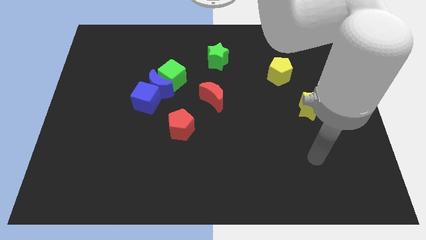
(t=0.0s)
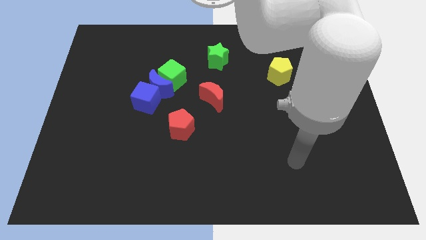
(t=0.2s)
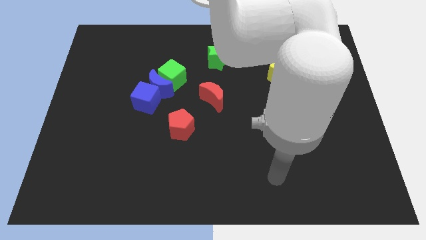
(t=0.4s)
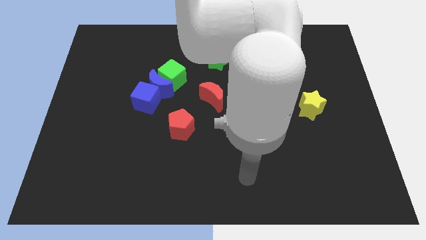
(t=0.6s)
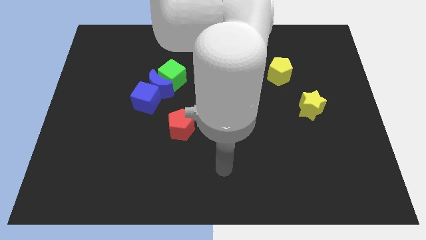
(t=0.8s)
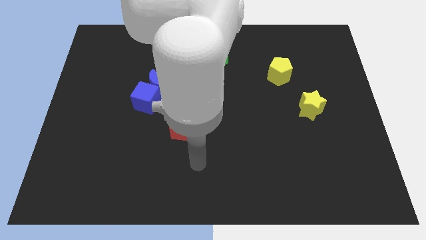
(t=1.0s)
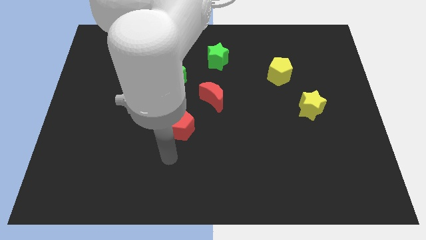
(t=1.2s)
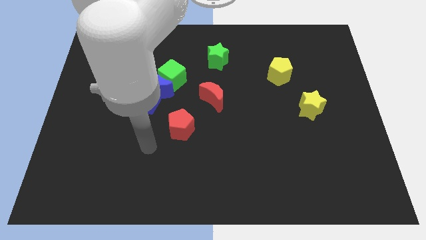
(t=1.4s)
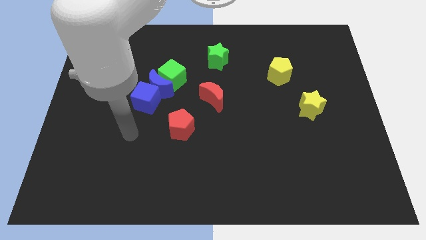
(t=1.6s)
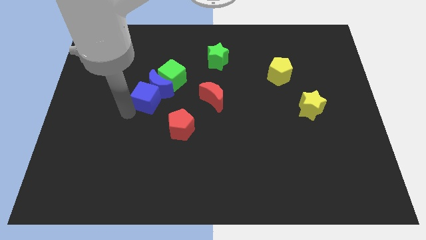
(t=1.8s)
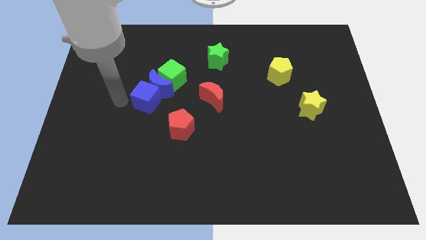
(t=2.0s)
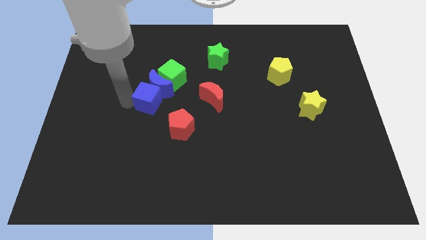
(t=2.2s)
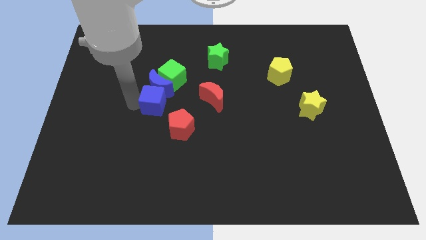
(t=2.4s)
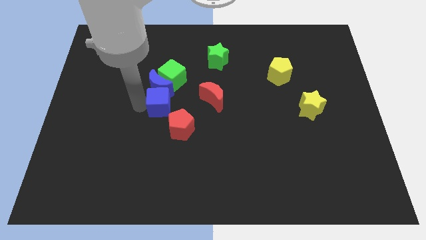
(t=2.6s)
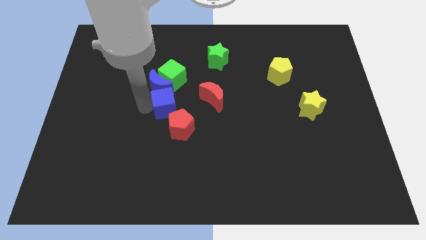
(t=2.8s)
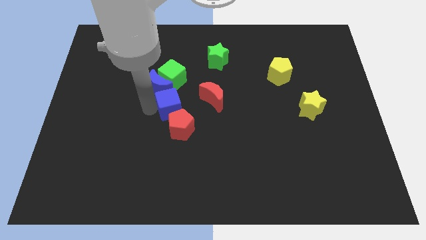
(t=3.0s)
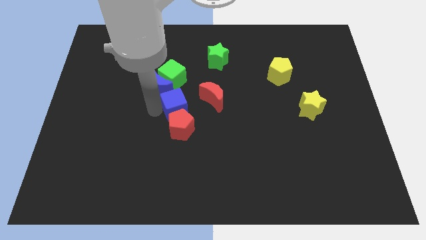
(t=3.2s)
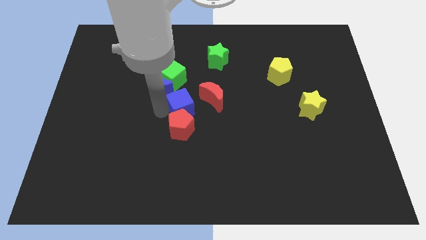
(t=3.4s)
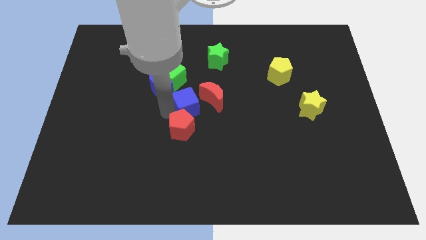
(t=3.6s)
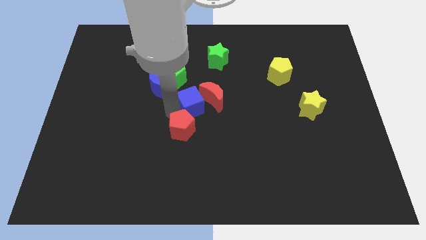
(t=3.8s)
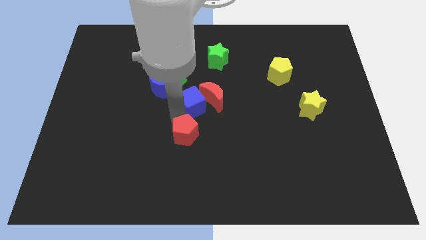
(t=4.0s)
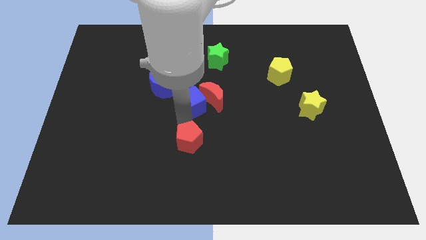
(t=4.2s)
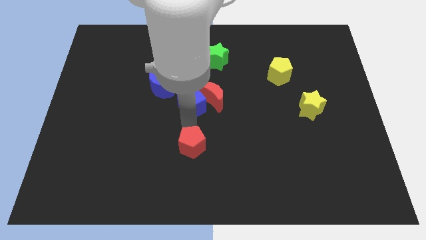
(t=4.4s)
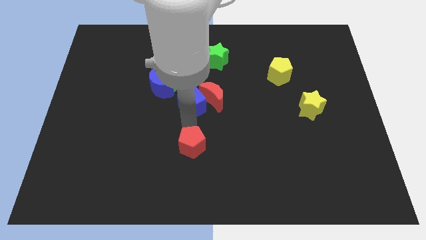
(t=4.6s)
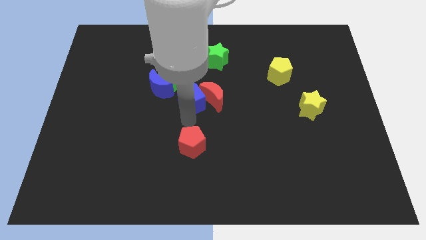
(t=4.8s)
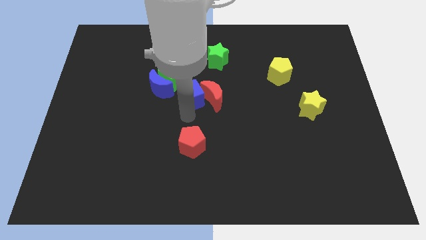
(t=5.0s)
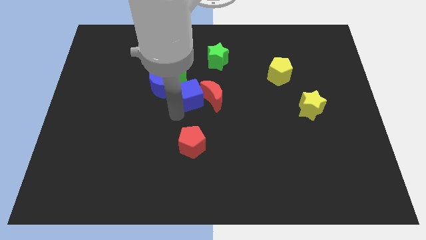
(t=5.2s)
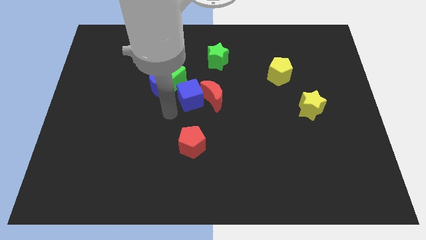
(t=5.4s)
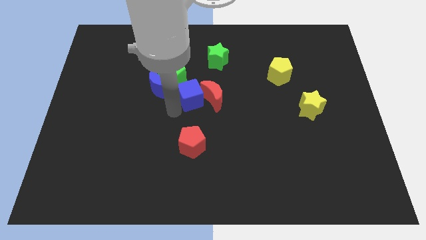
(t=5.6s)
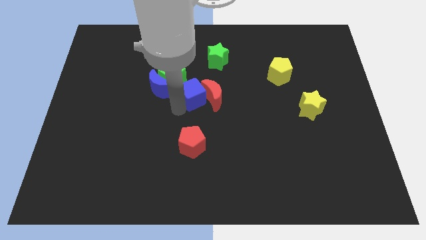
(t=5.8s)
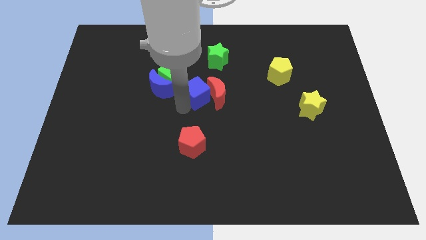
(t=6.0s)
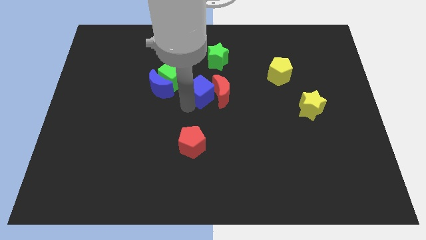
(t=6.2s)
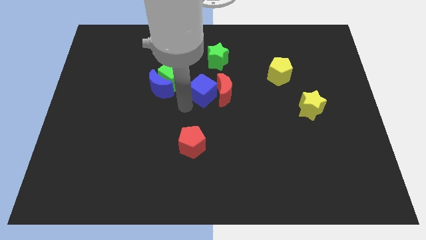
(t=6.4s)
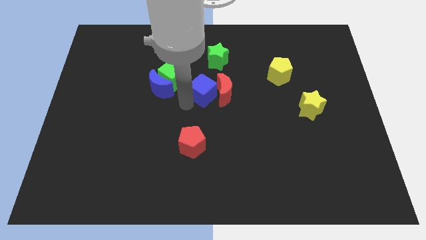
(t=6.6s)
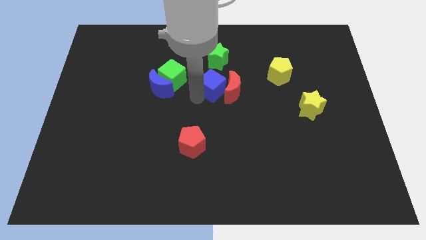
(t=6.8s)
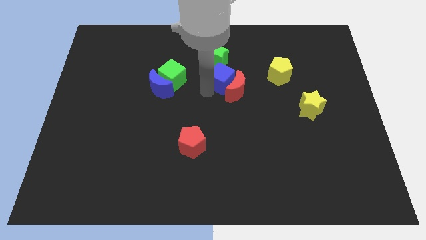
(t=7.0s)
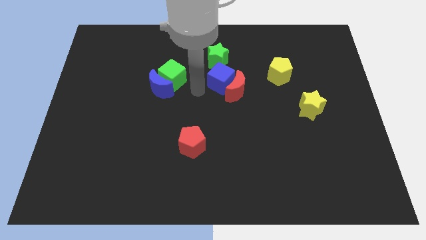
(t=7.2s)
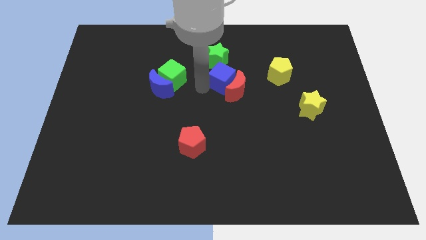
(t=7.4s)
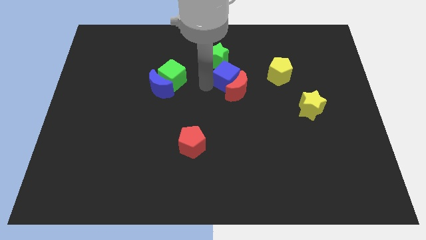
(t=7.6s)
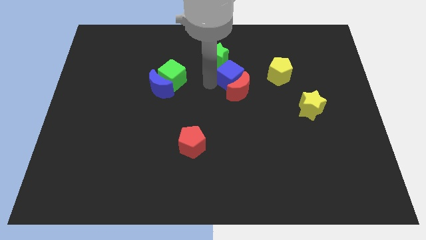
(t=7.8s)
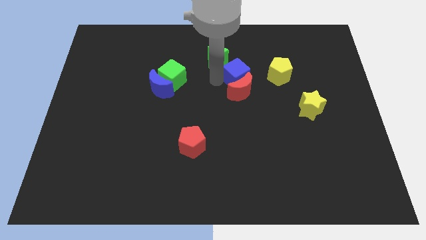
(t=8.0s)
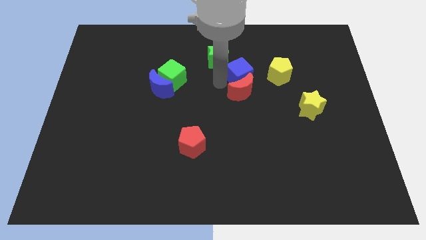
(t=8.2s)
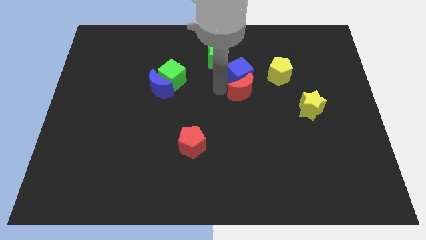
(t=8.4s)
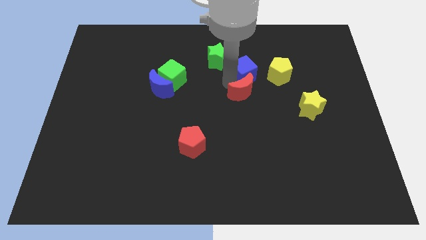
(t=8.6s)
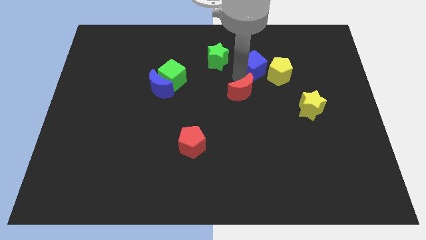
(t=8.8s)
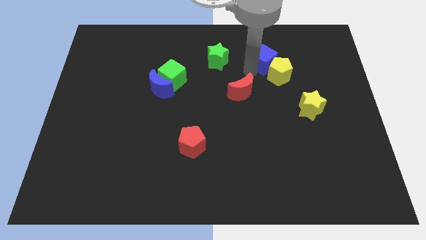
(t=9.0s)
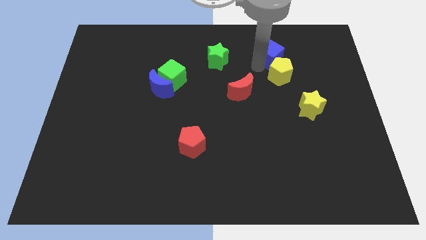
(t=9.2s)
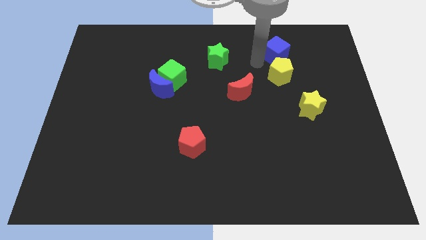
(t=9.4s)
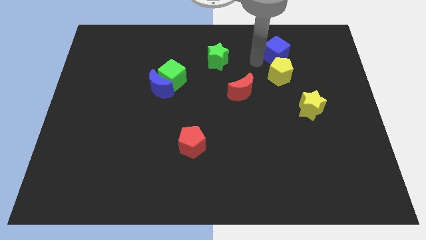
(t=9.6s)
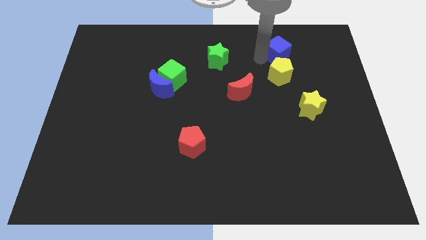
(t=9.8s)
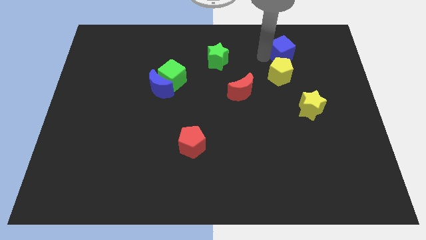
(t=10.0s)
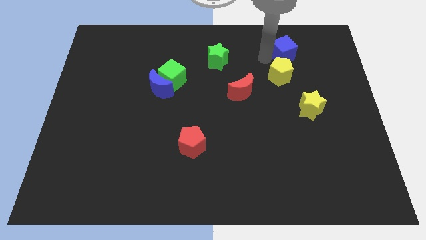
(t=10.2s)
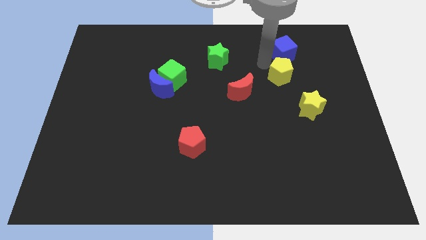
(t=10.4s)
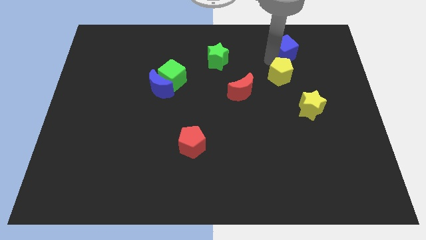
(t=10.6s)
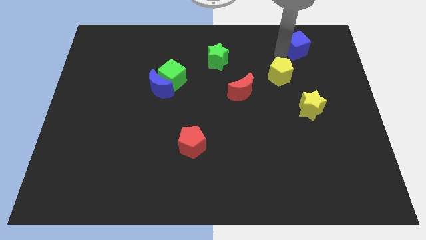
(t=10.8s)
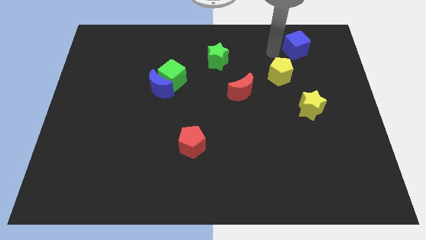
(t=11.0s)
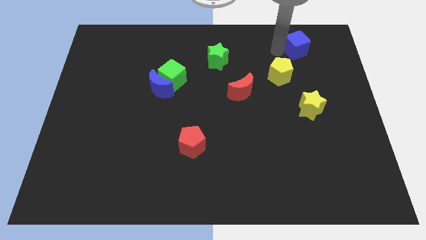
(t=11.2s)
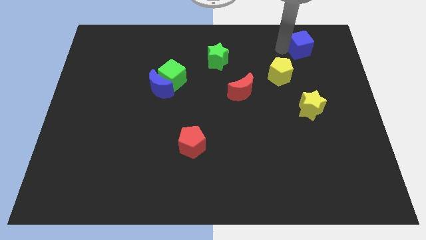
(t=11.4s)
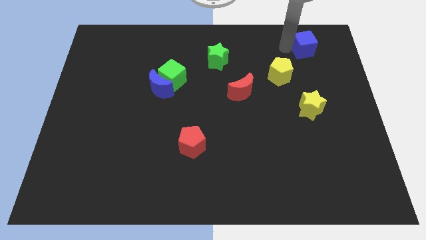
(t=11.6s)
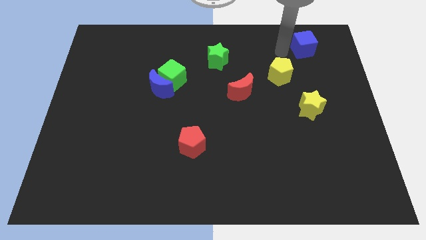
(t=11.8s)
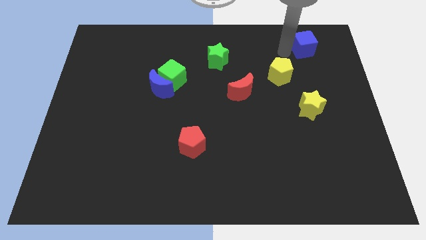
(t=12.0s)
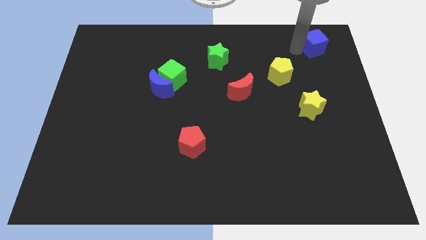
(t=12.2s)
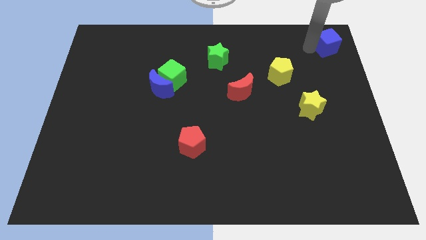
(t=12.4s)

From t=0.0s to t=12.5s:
push the blue cube to the upper right corner

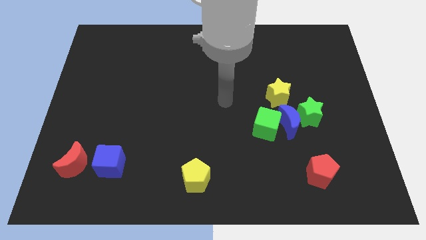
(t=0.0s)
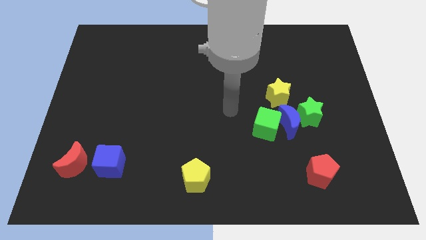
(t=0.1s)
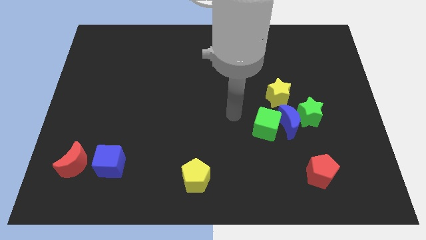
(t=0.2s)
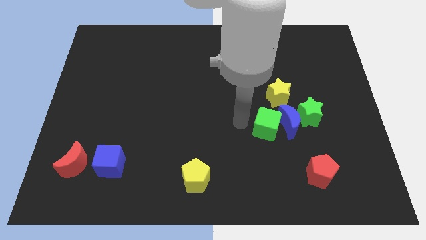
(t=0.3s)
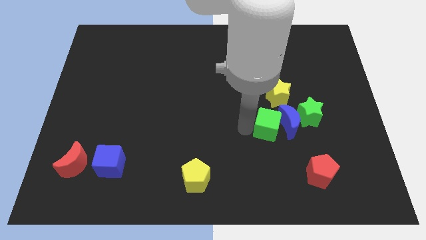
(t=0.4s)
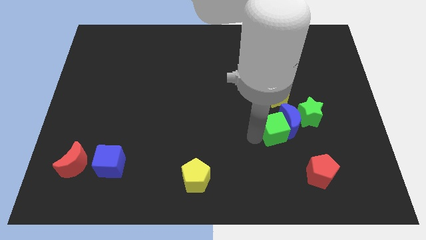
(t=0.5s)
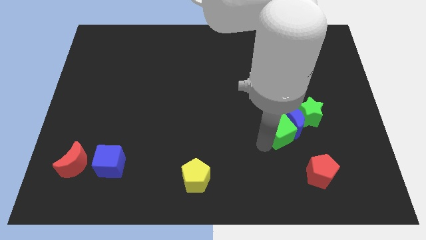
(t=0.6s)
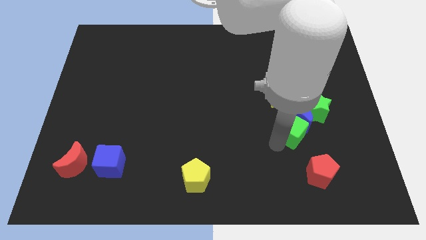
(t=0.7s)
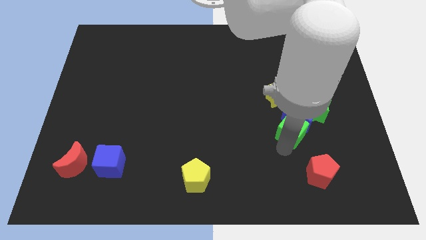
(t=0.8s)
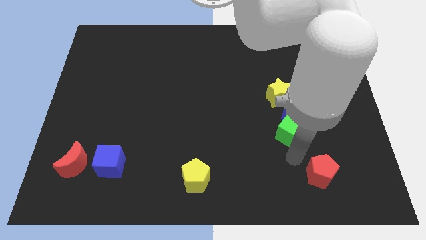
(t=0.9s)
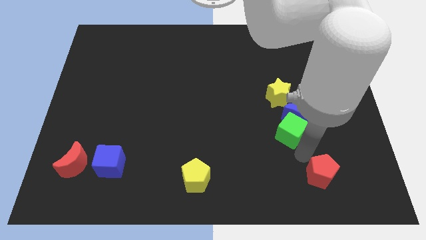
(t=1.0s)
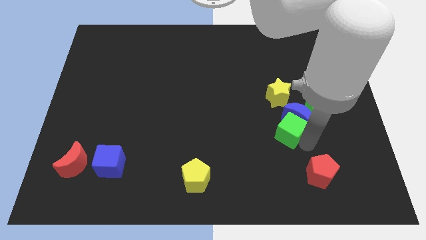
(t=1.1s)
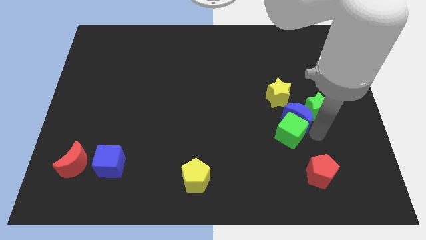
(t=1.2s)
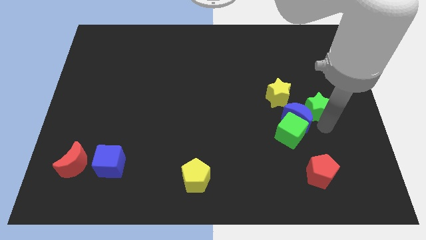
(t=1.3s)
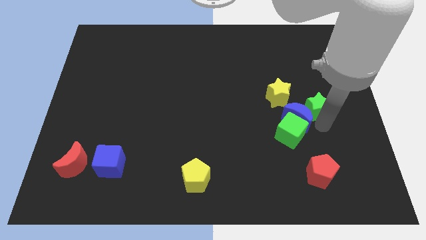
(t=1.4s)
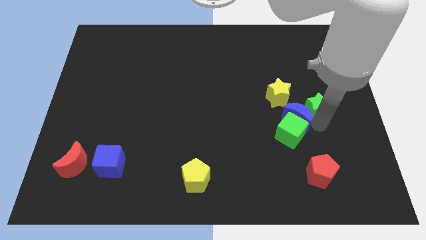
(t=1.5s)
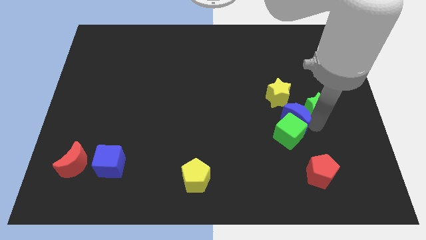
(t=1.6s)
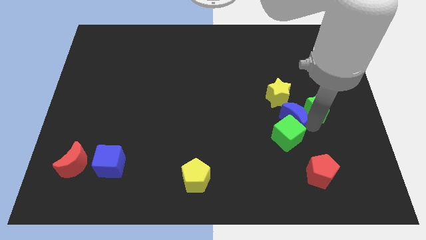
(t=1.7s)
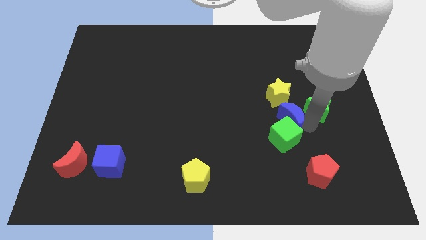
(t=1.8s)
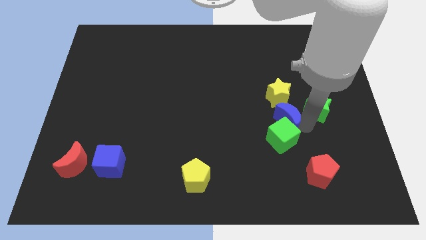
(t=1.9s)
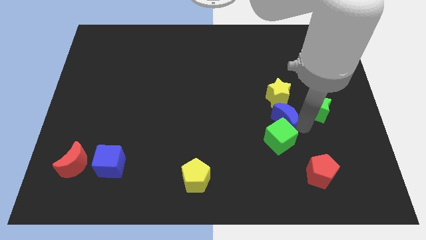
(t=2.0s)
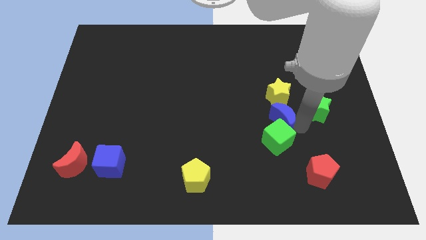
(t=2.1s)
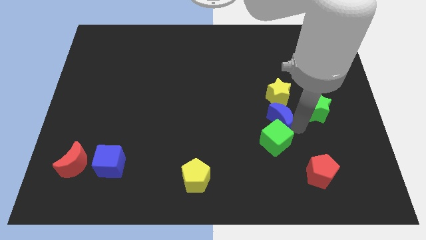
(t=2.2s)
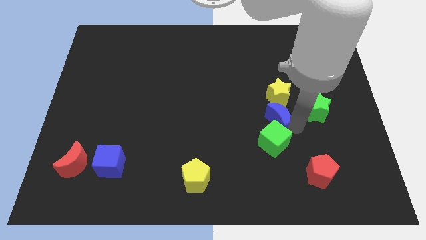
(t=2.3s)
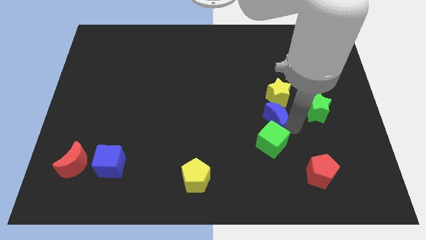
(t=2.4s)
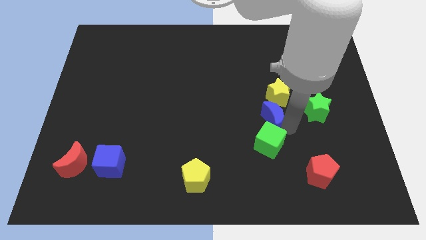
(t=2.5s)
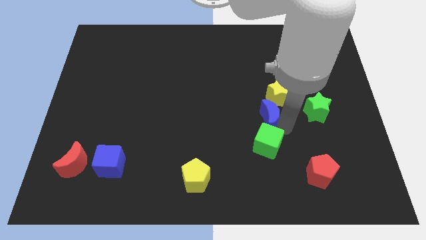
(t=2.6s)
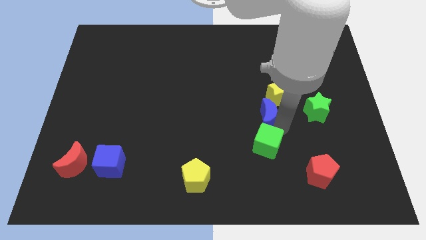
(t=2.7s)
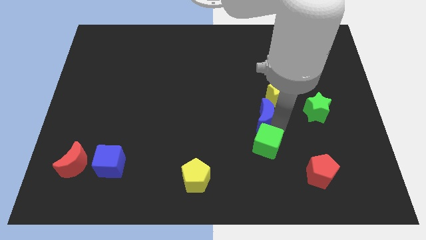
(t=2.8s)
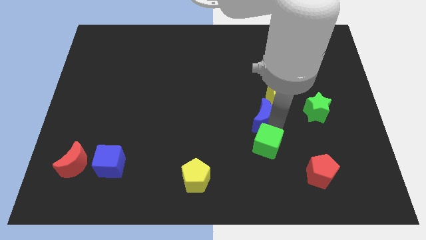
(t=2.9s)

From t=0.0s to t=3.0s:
put the blue moon to the middle
